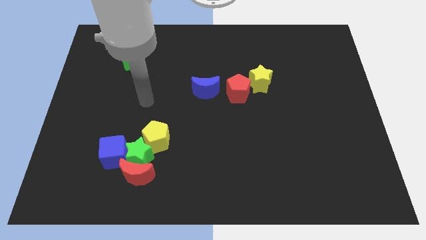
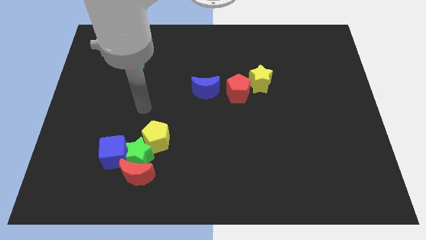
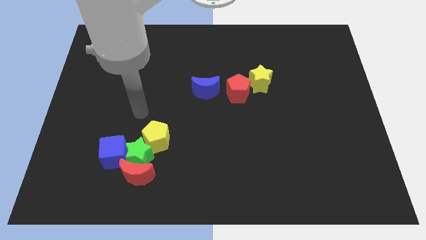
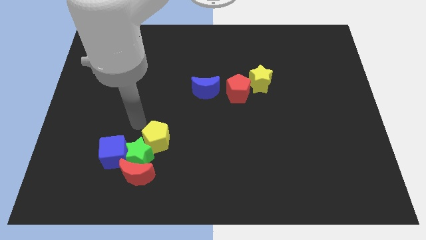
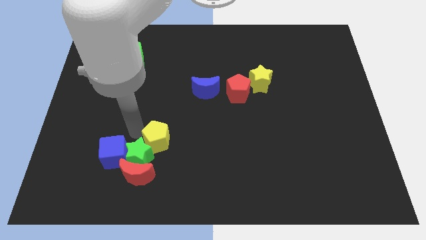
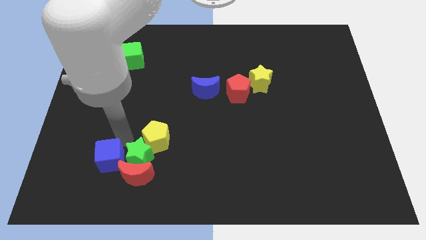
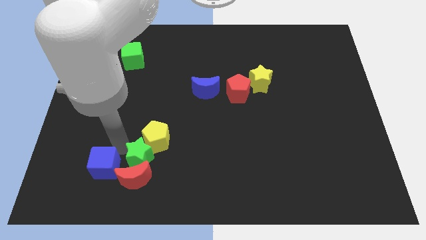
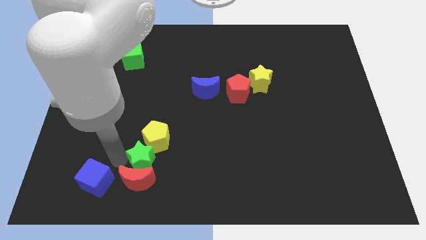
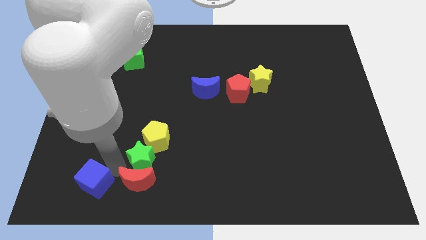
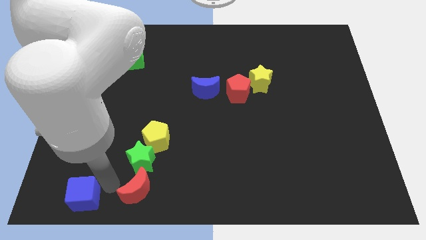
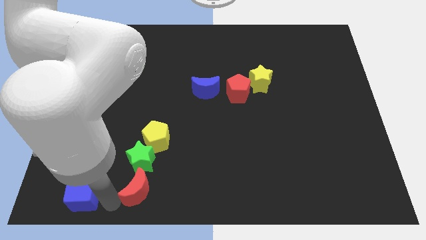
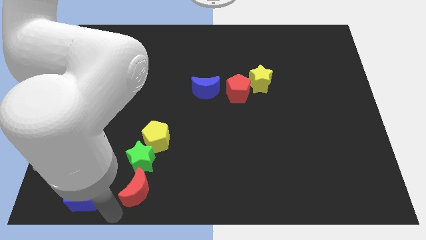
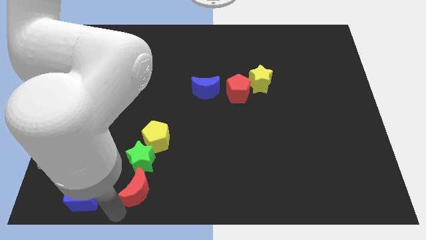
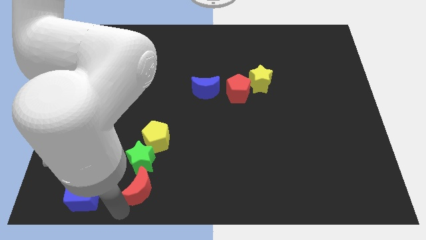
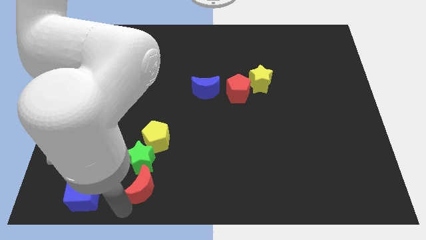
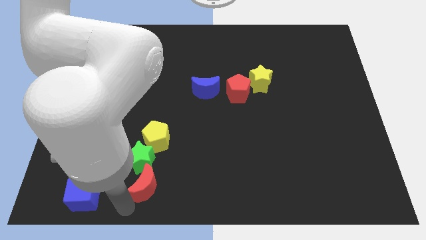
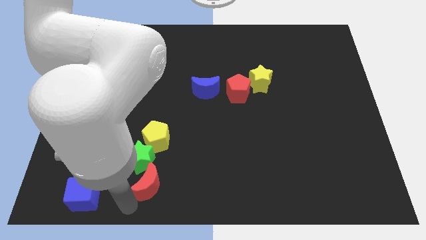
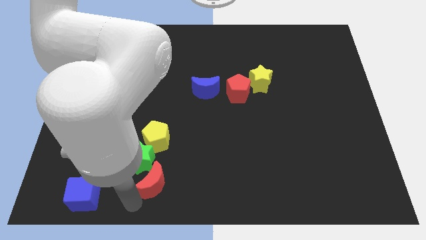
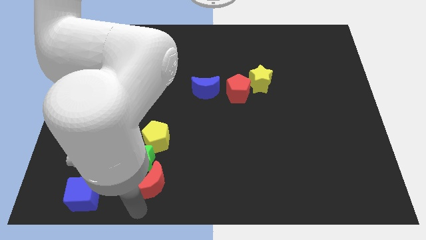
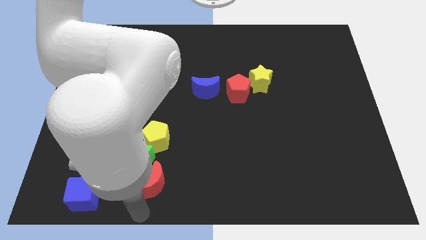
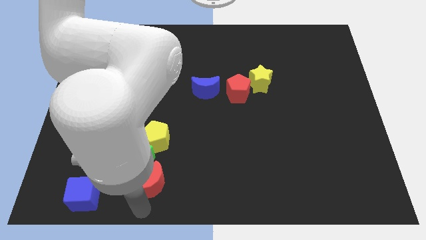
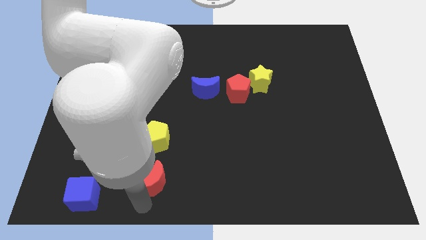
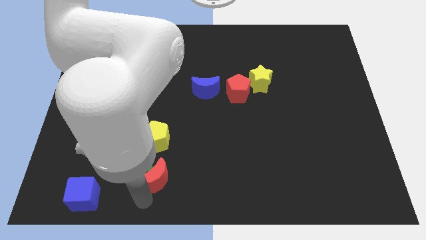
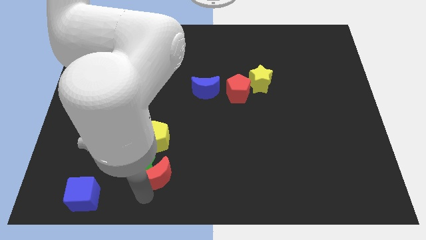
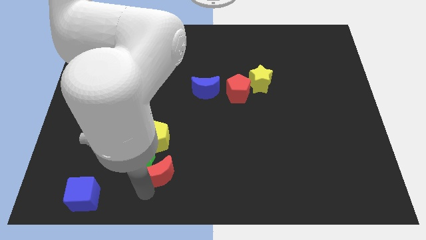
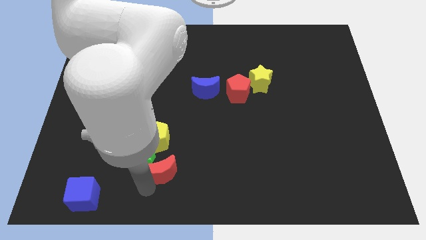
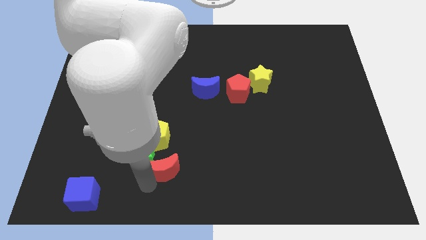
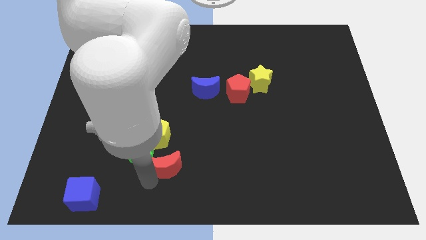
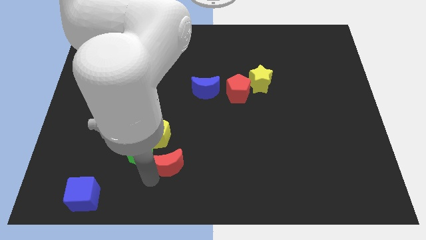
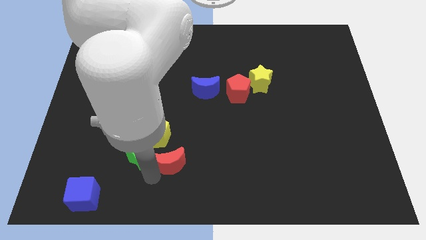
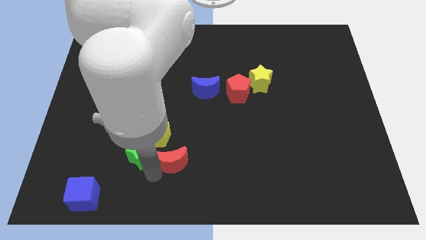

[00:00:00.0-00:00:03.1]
slide the red moon diagonally up and to the right slightly

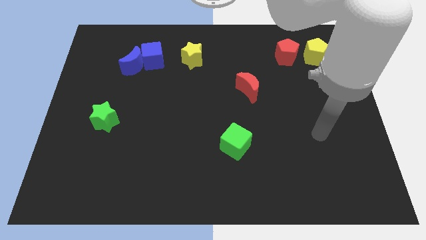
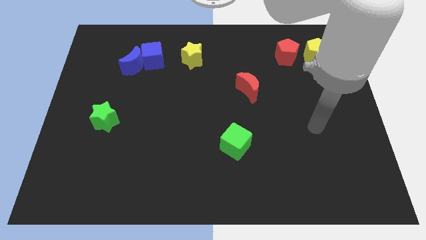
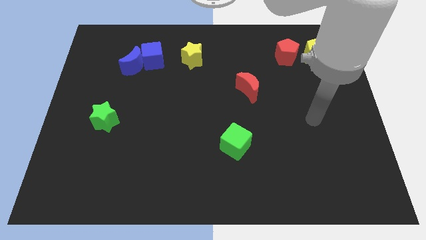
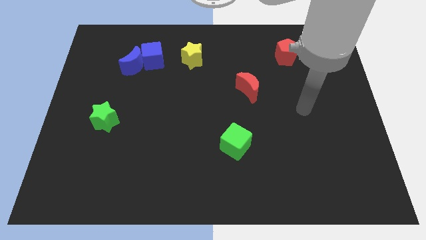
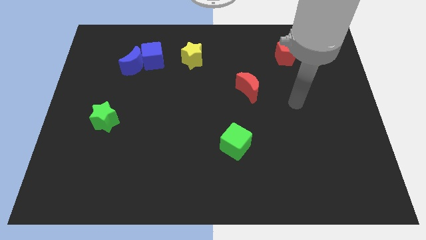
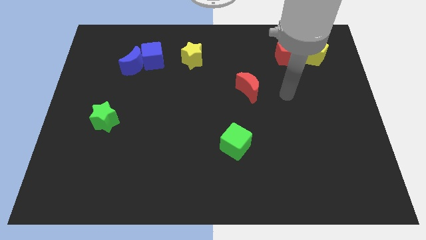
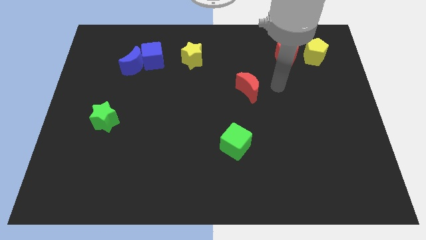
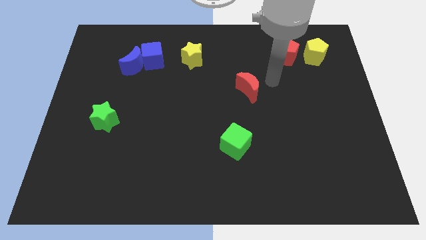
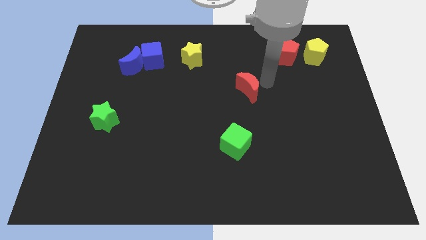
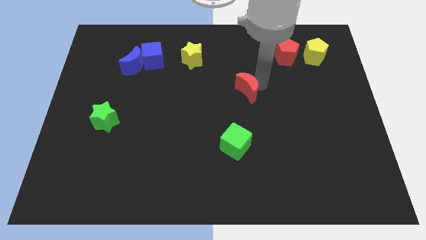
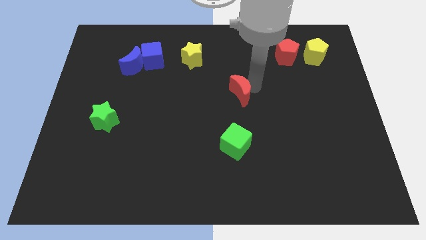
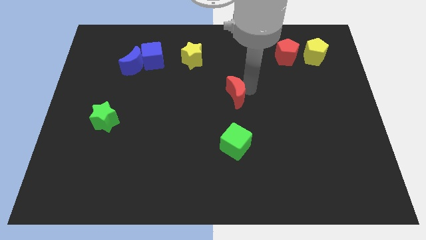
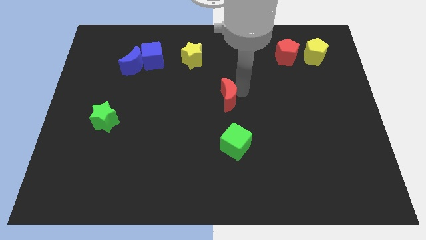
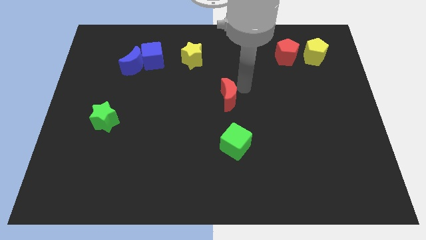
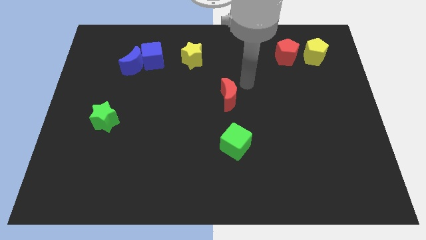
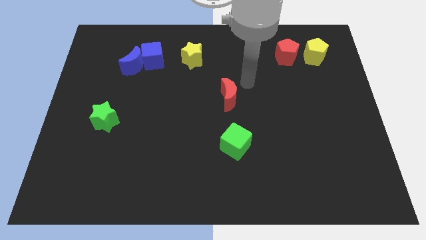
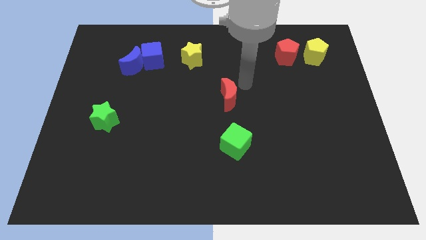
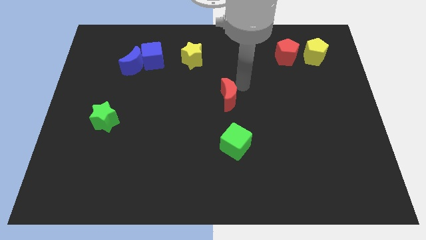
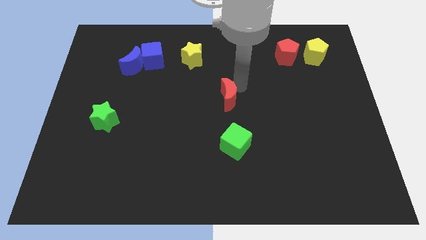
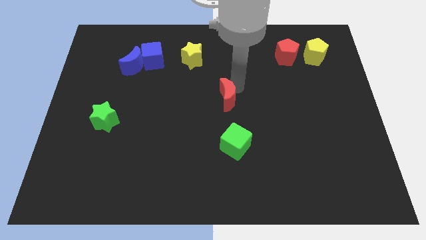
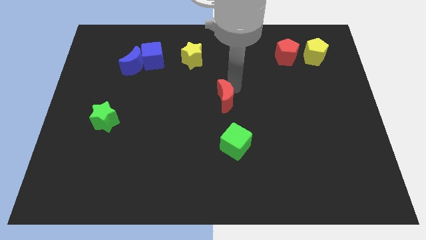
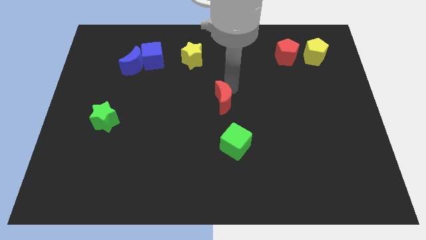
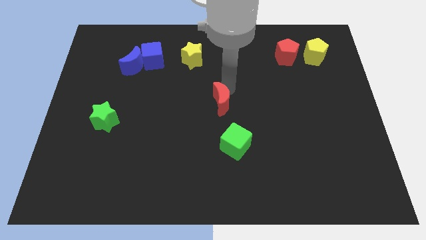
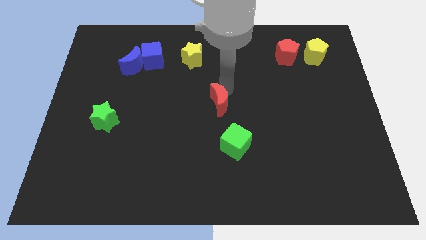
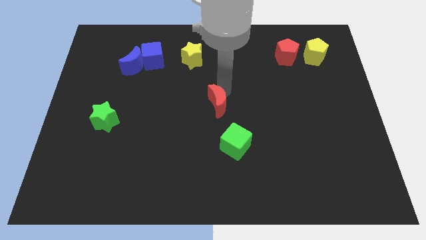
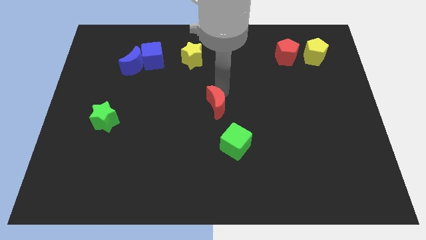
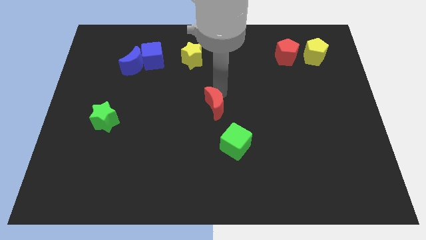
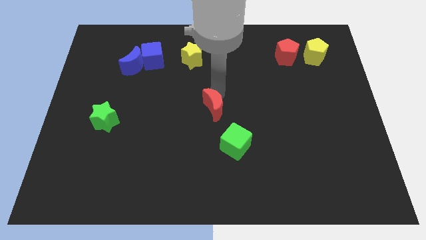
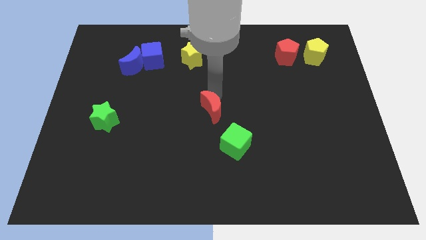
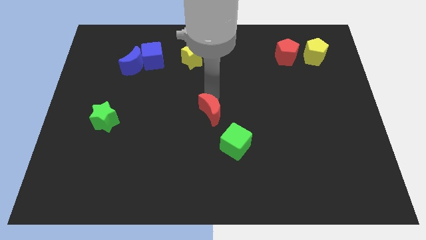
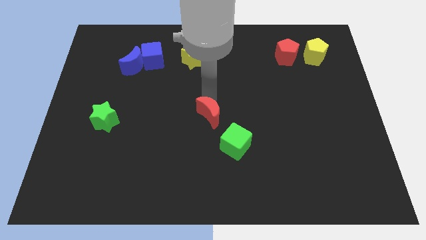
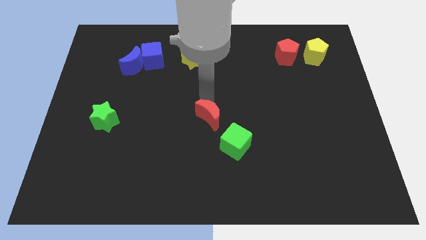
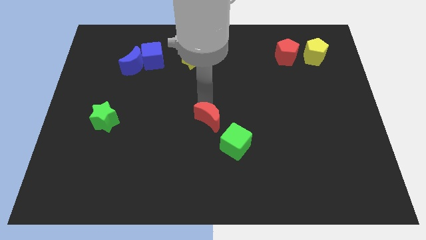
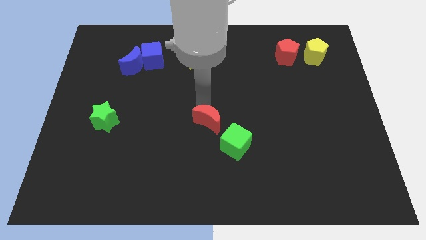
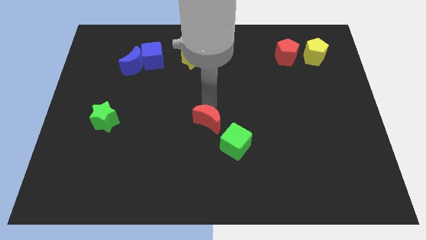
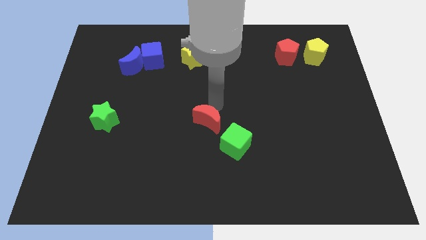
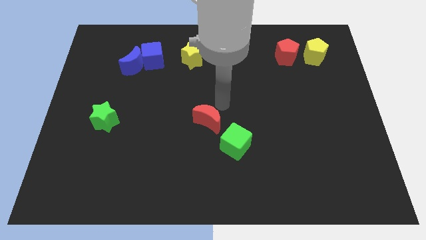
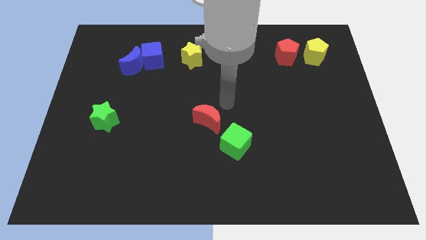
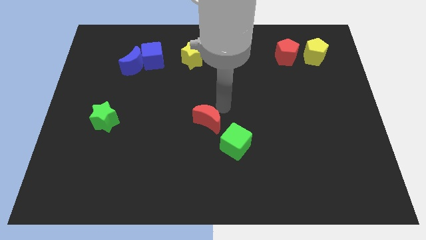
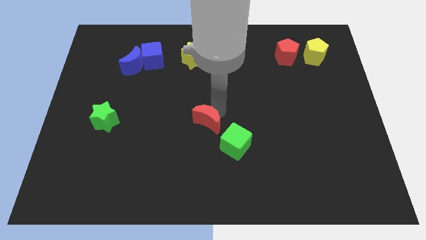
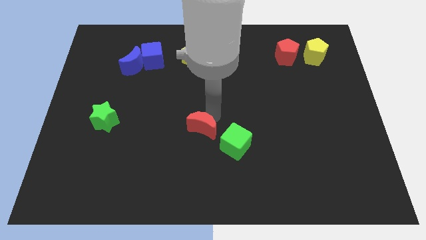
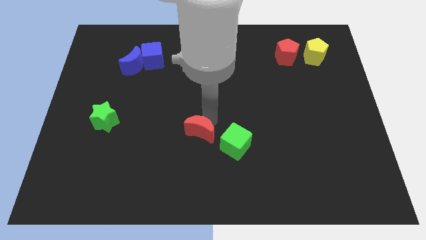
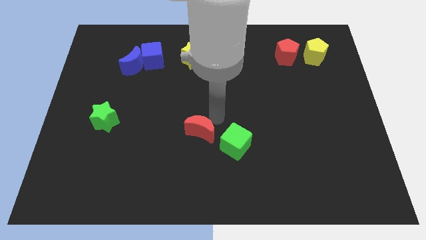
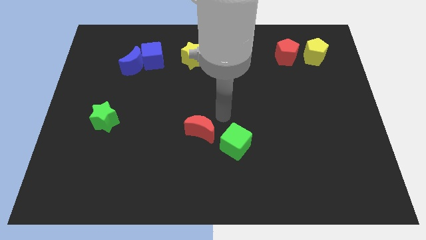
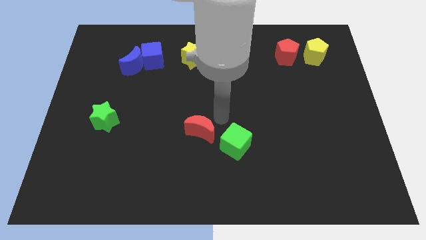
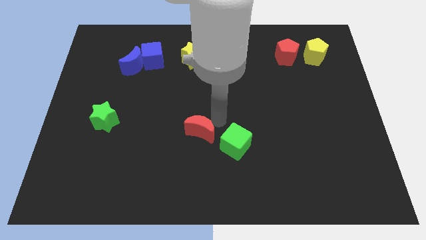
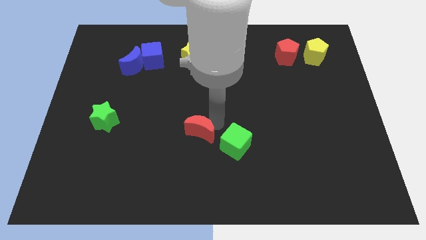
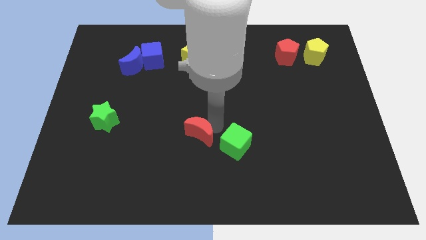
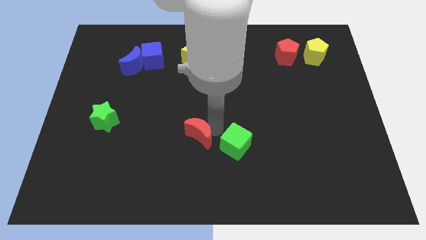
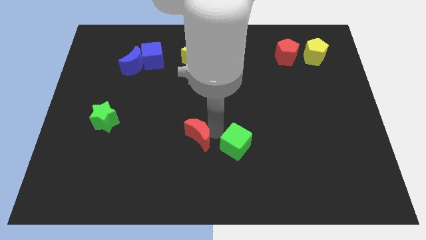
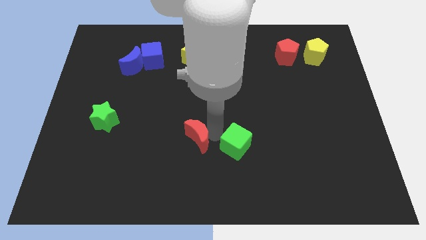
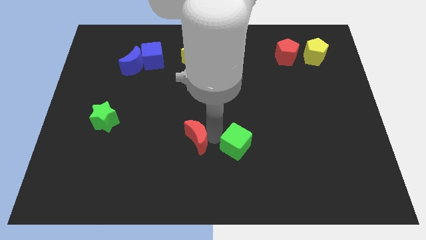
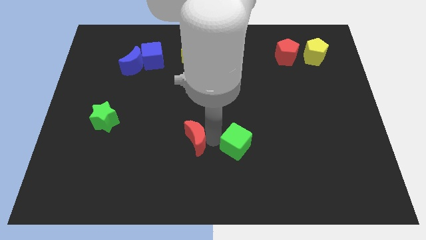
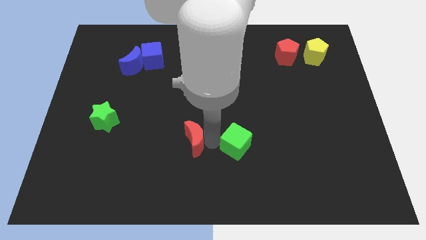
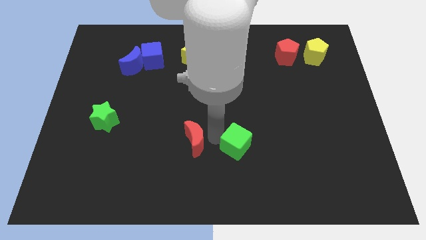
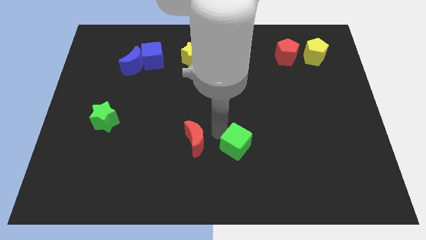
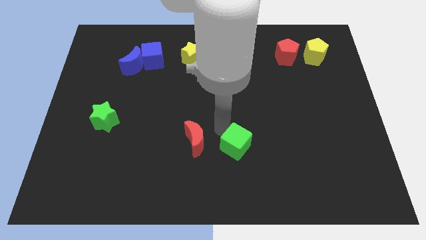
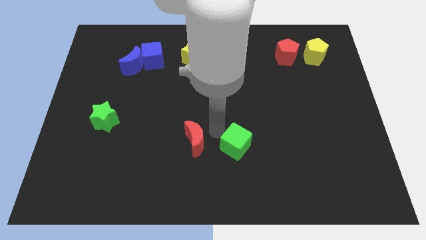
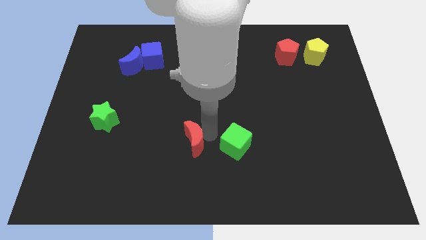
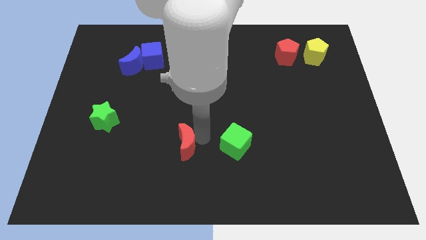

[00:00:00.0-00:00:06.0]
slide the red moon down and then left
